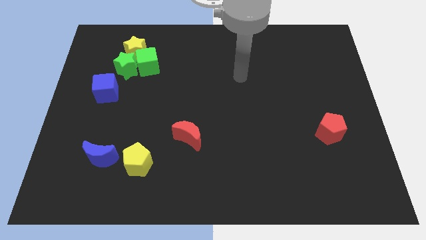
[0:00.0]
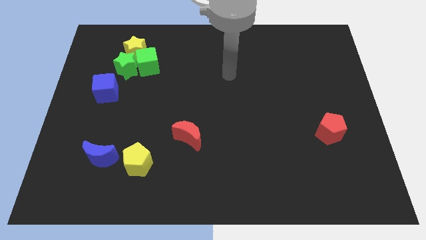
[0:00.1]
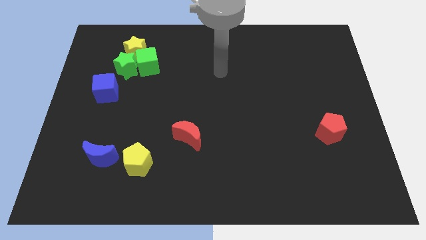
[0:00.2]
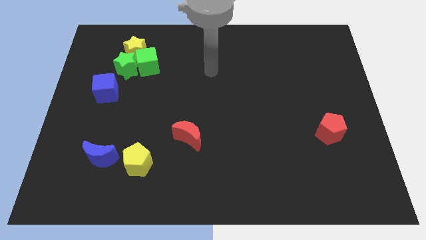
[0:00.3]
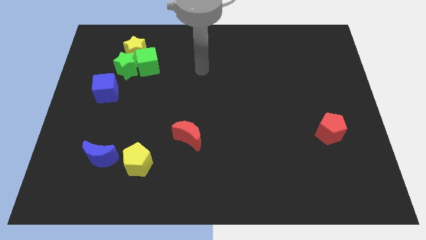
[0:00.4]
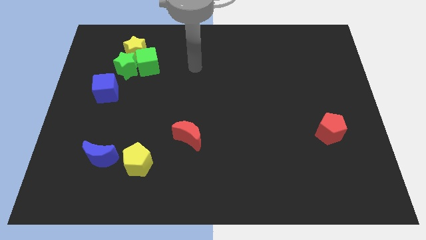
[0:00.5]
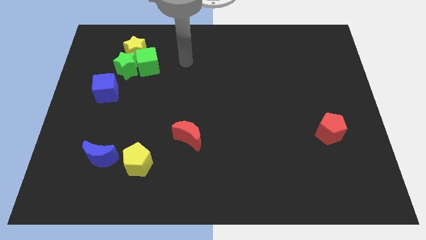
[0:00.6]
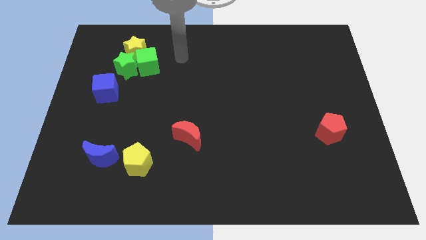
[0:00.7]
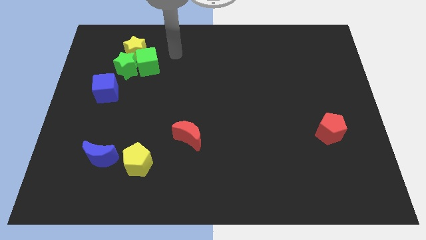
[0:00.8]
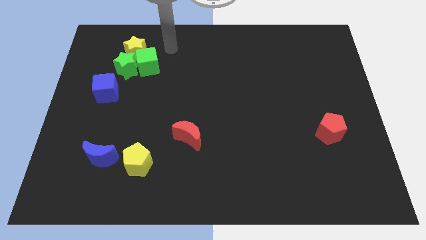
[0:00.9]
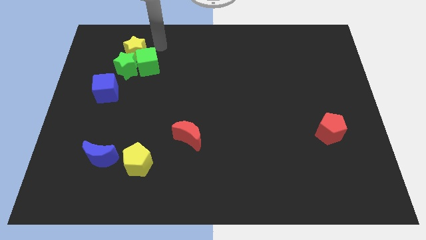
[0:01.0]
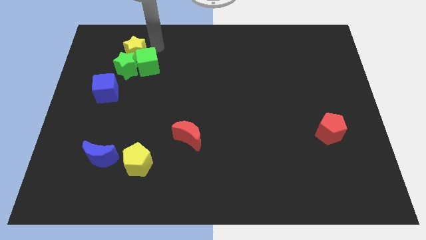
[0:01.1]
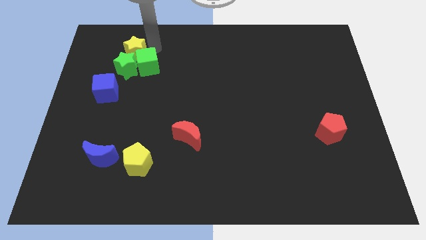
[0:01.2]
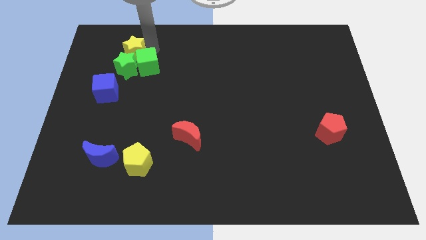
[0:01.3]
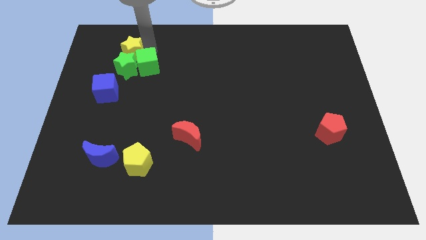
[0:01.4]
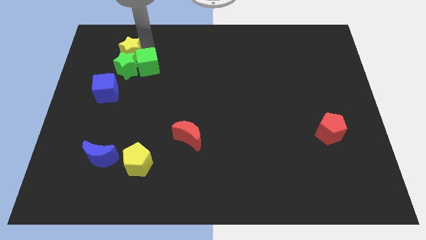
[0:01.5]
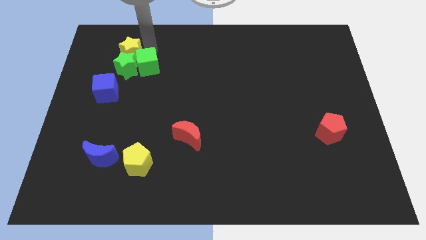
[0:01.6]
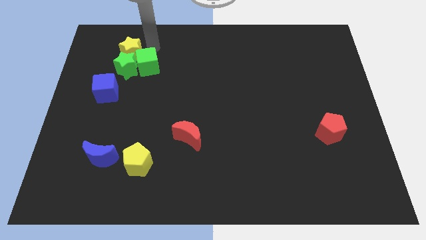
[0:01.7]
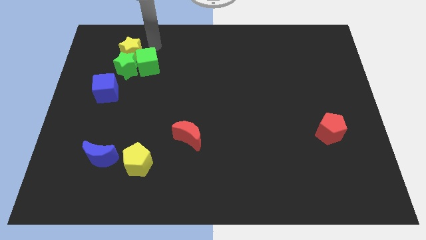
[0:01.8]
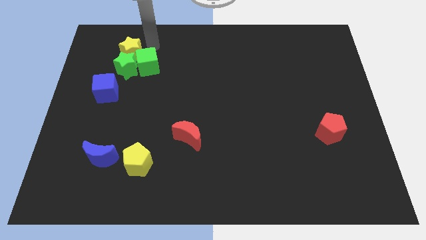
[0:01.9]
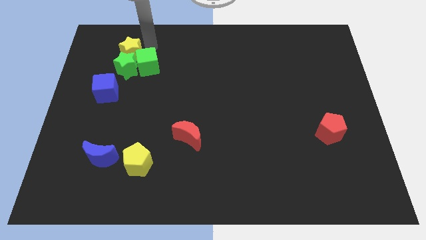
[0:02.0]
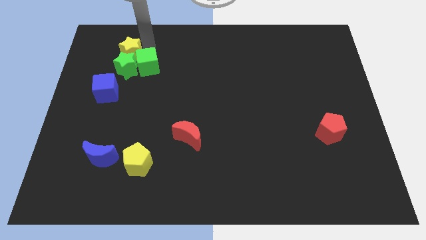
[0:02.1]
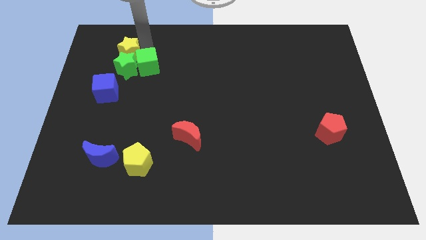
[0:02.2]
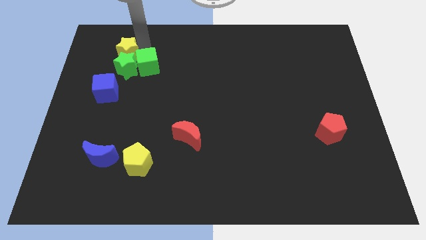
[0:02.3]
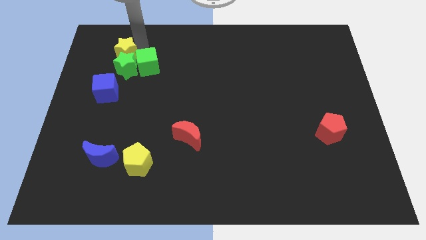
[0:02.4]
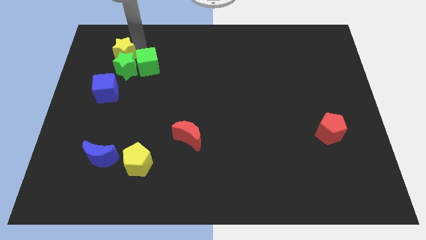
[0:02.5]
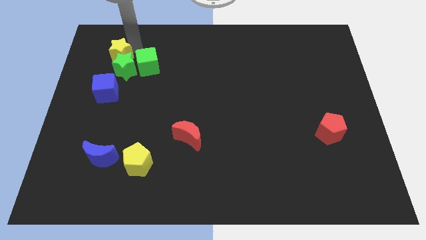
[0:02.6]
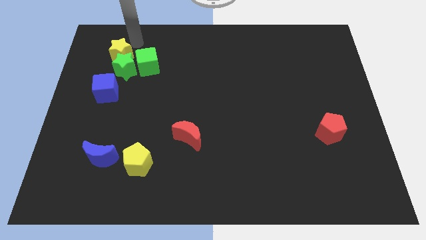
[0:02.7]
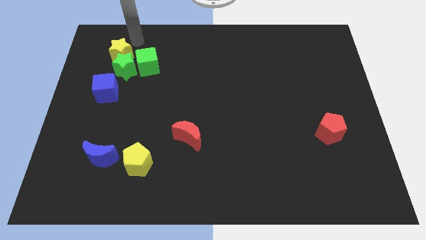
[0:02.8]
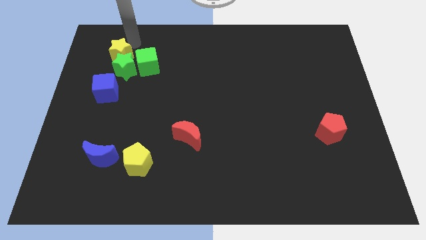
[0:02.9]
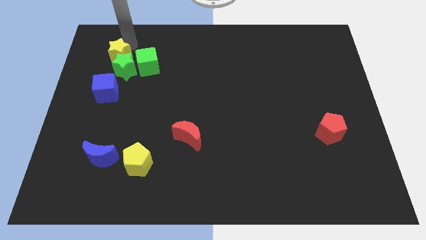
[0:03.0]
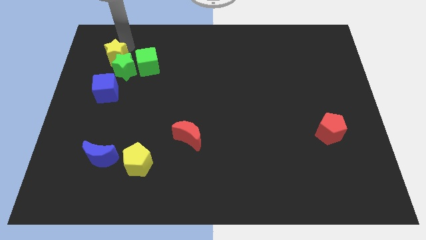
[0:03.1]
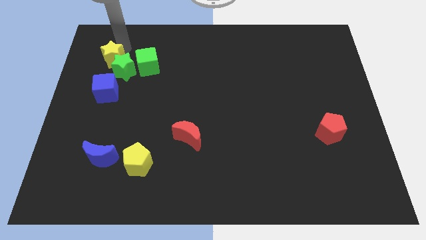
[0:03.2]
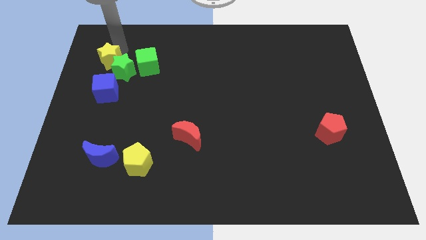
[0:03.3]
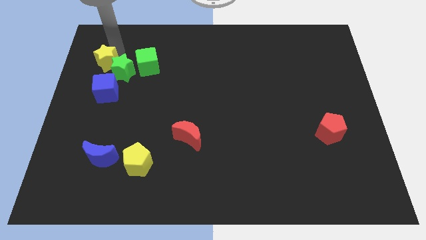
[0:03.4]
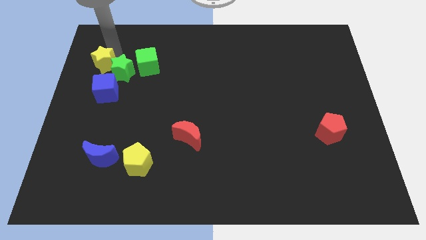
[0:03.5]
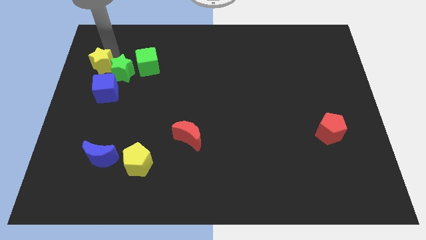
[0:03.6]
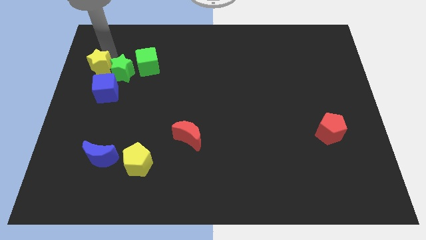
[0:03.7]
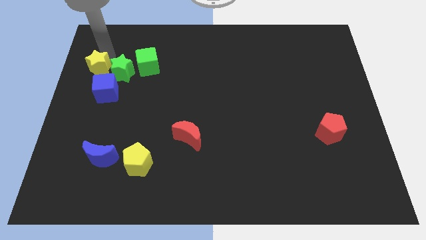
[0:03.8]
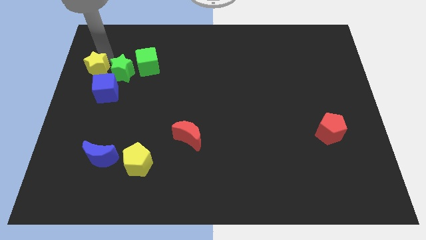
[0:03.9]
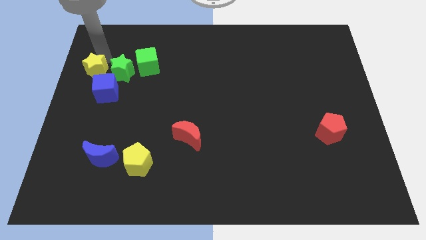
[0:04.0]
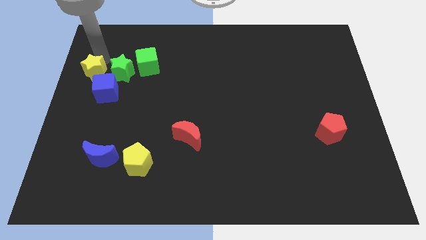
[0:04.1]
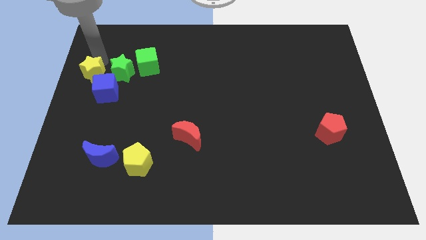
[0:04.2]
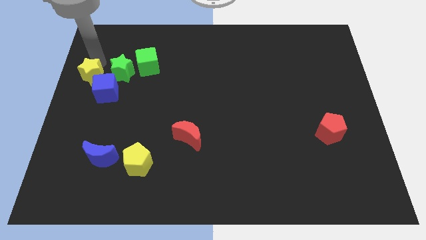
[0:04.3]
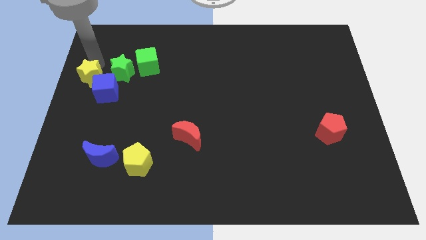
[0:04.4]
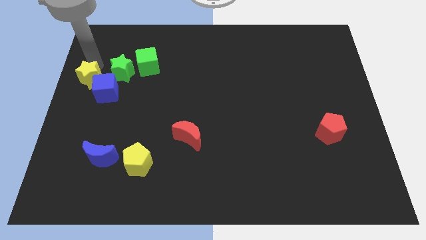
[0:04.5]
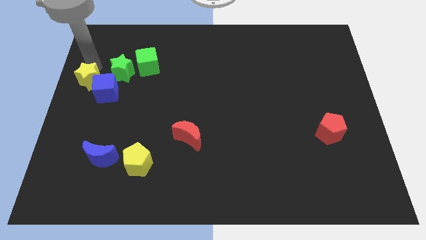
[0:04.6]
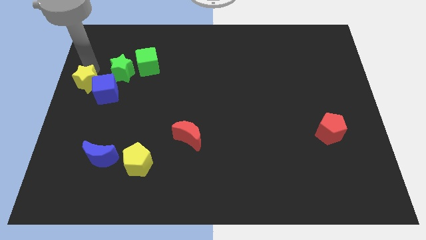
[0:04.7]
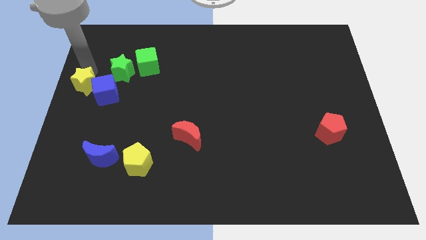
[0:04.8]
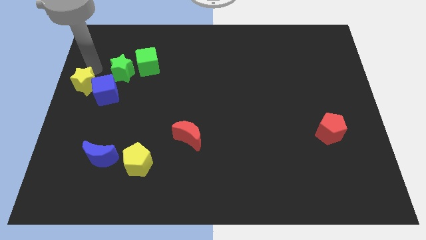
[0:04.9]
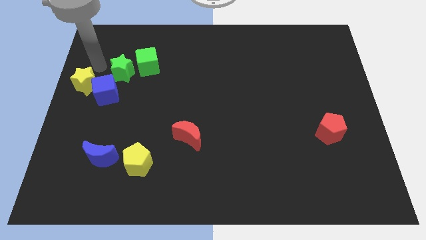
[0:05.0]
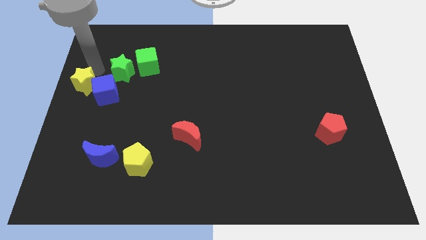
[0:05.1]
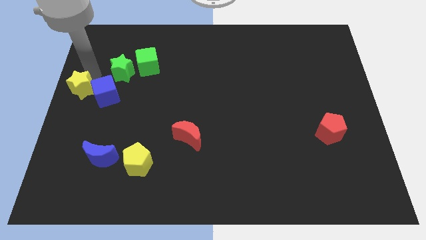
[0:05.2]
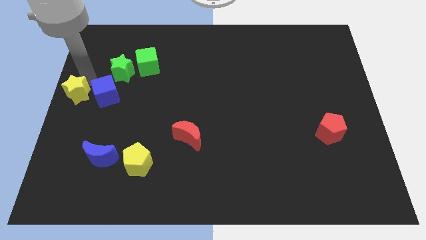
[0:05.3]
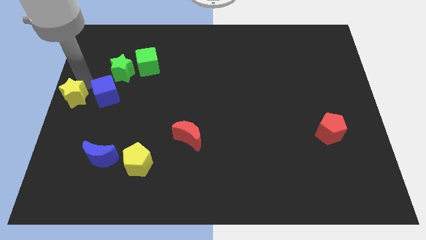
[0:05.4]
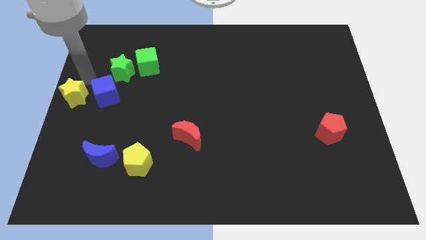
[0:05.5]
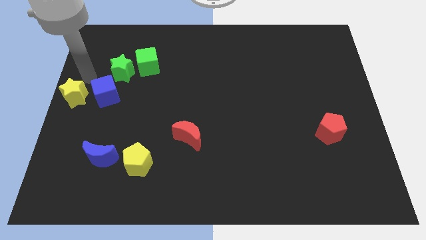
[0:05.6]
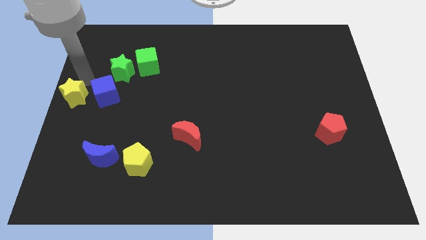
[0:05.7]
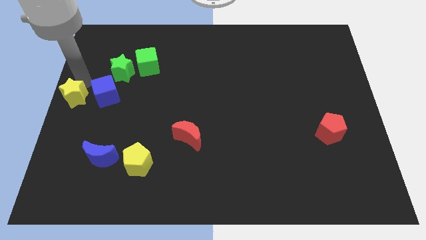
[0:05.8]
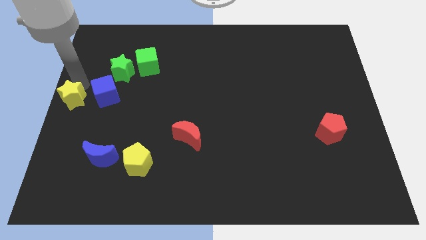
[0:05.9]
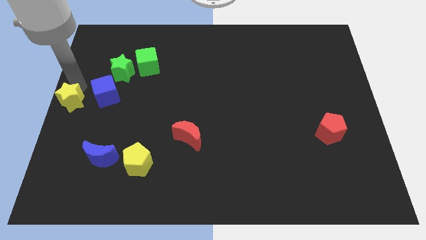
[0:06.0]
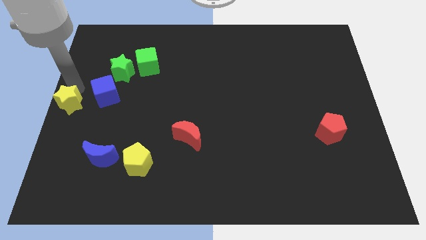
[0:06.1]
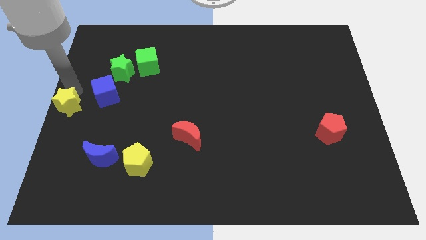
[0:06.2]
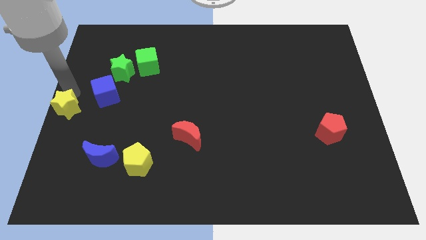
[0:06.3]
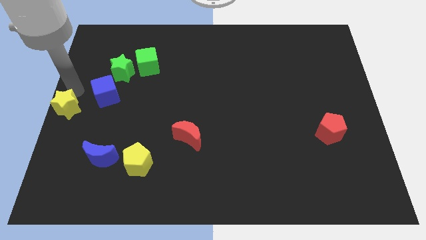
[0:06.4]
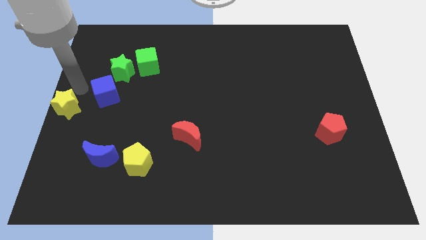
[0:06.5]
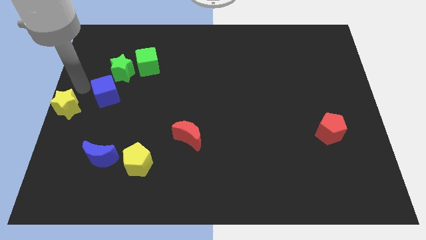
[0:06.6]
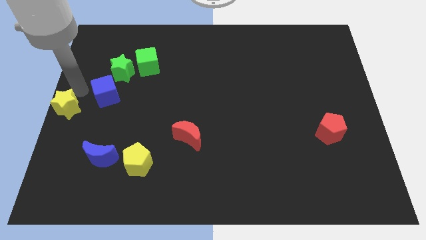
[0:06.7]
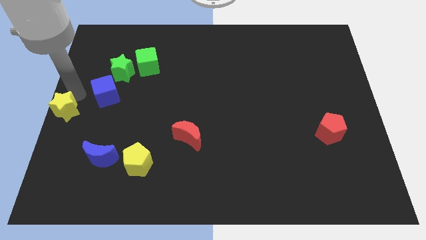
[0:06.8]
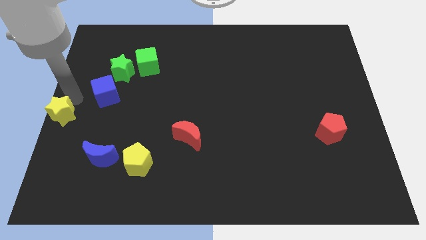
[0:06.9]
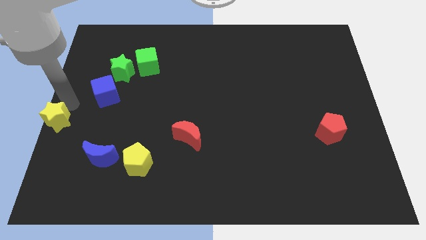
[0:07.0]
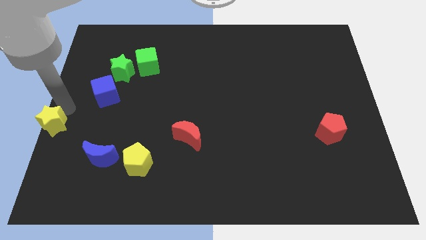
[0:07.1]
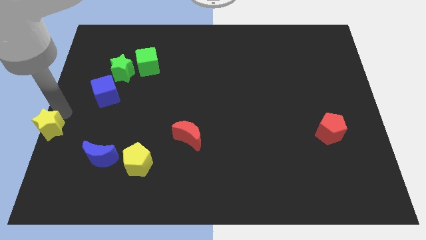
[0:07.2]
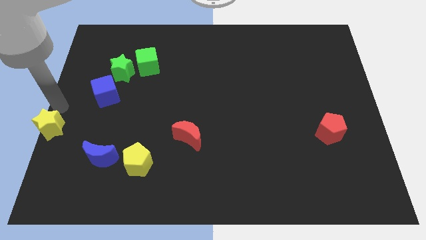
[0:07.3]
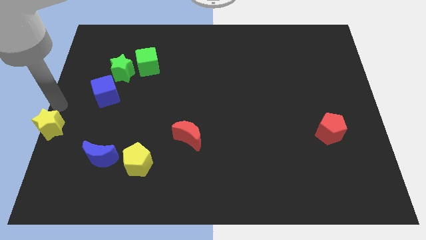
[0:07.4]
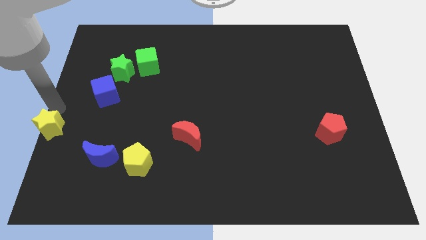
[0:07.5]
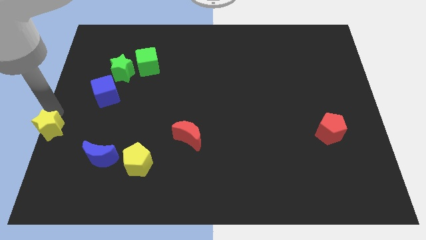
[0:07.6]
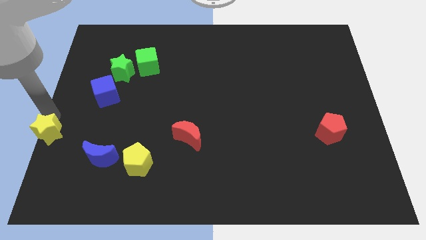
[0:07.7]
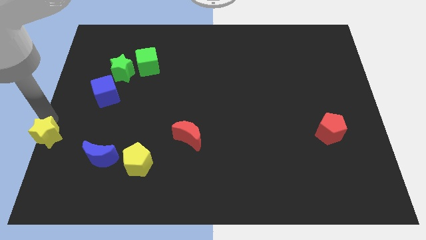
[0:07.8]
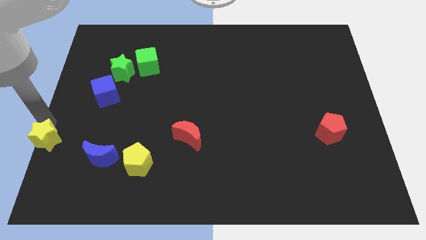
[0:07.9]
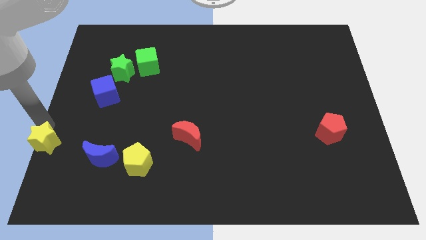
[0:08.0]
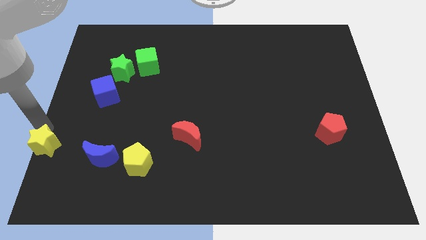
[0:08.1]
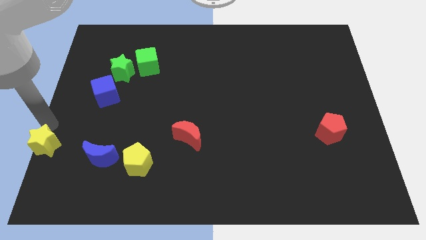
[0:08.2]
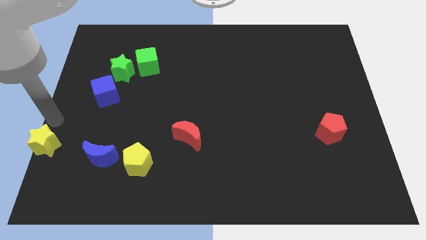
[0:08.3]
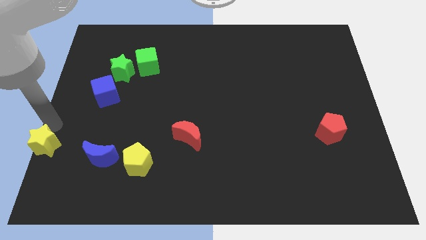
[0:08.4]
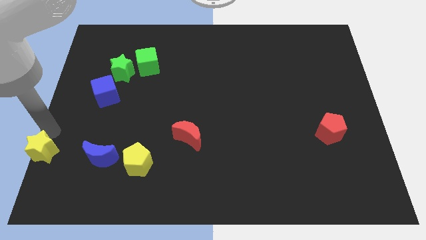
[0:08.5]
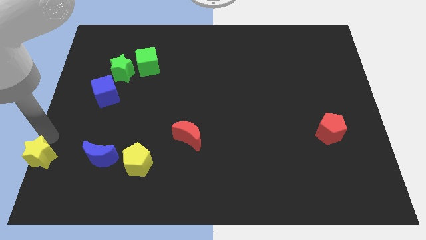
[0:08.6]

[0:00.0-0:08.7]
move the yellow star to the bottom left
